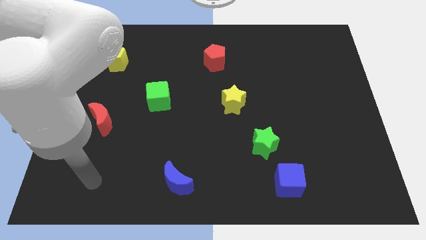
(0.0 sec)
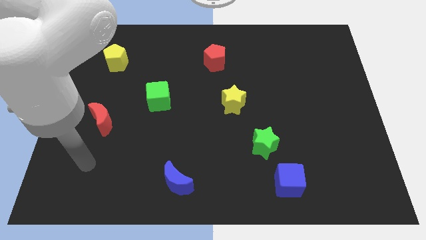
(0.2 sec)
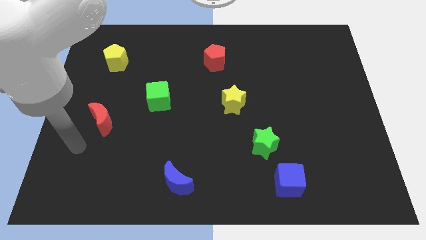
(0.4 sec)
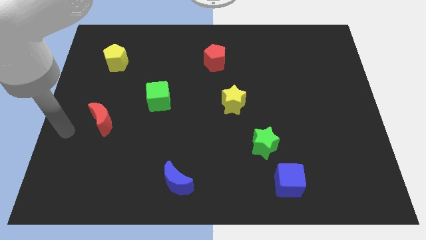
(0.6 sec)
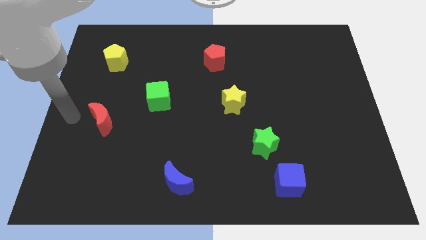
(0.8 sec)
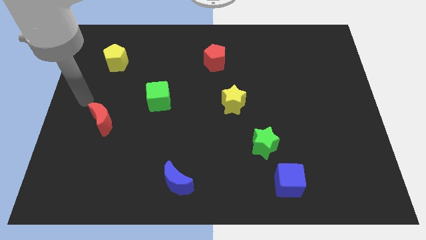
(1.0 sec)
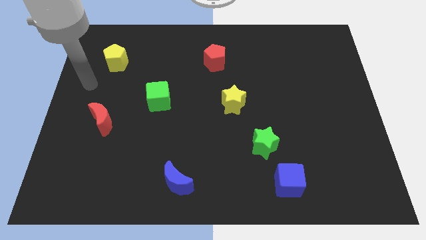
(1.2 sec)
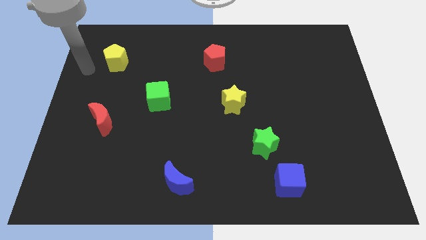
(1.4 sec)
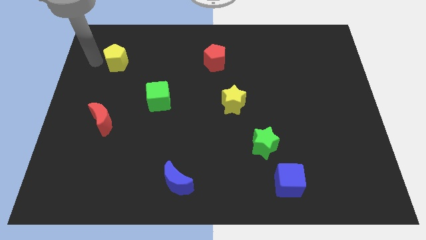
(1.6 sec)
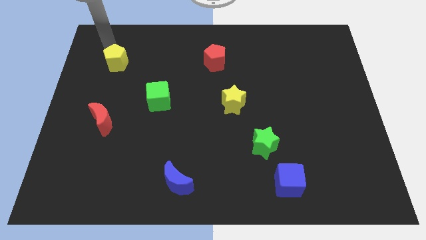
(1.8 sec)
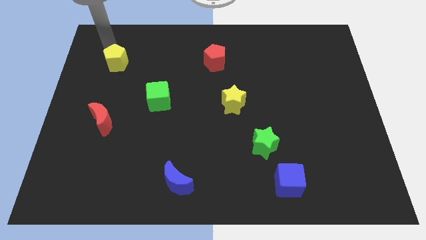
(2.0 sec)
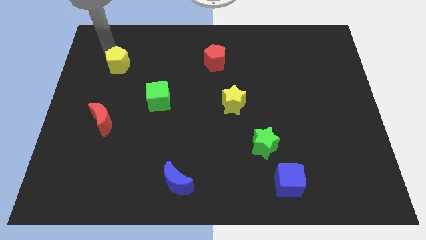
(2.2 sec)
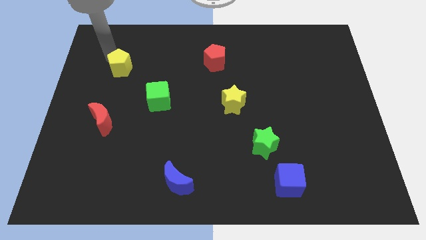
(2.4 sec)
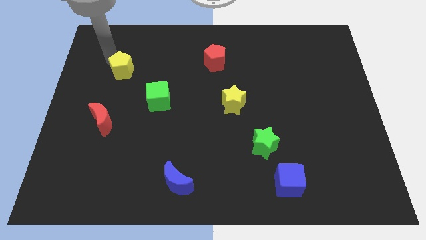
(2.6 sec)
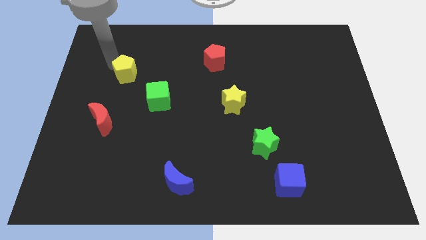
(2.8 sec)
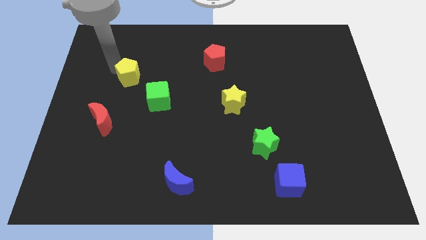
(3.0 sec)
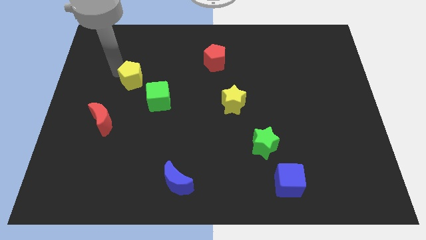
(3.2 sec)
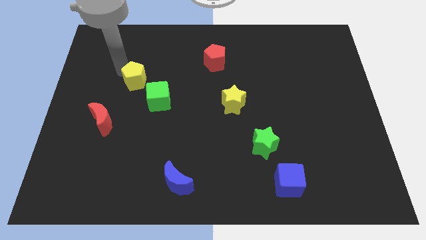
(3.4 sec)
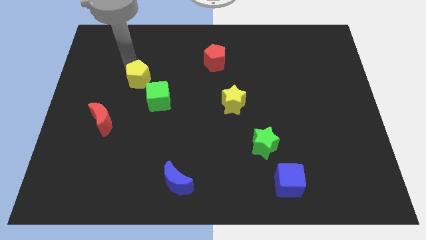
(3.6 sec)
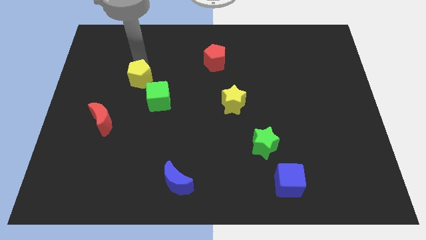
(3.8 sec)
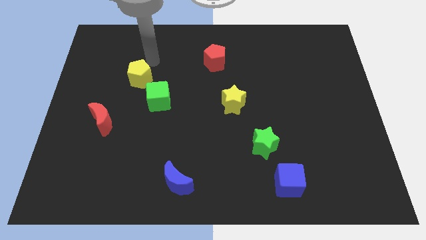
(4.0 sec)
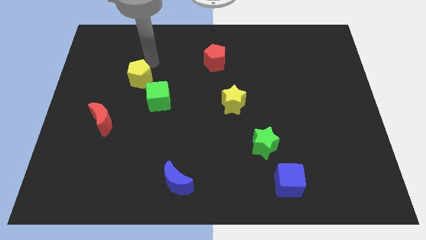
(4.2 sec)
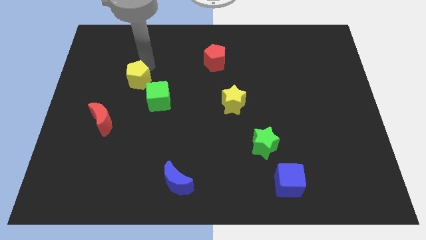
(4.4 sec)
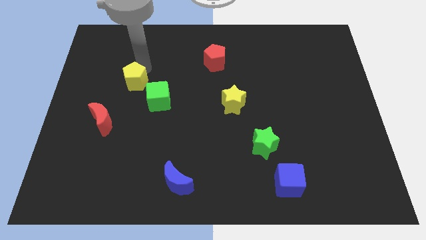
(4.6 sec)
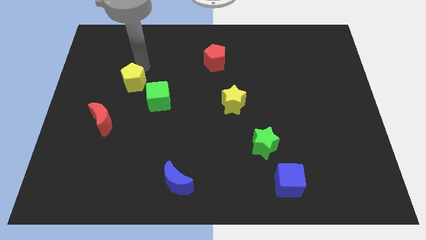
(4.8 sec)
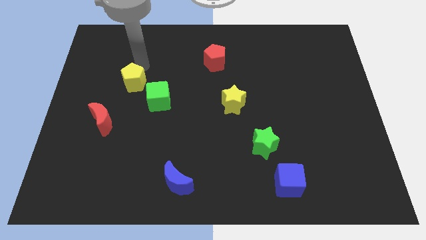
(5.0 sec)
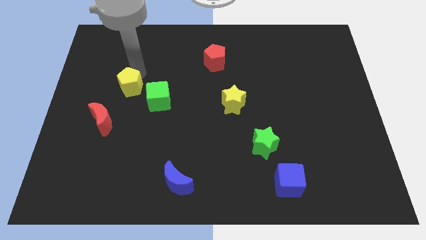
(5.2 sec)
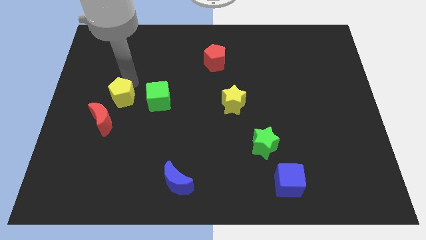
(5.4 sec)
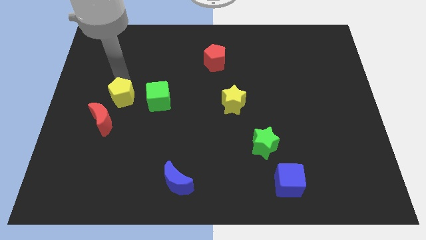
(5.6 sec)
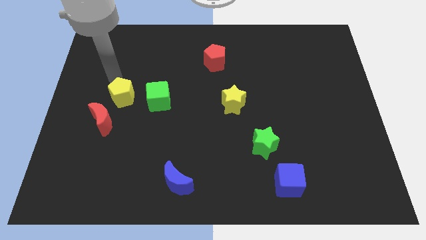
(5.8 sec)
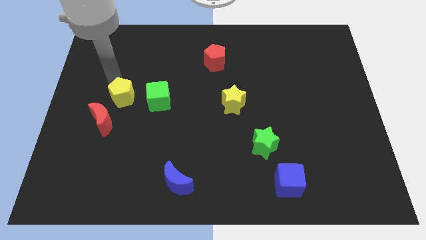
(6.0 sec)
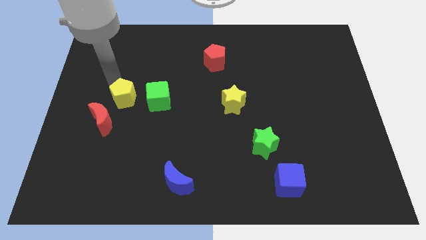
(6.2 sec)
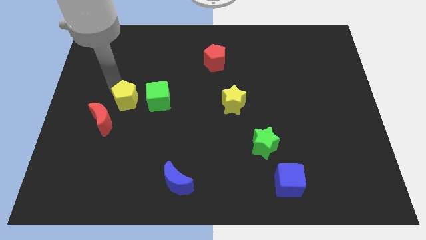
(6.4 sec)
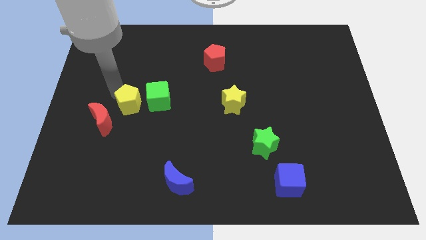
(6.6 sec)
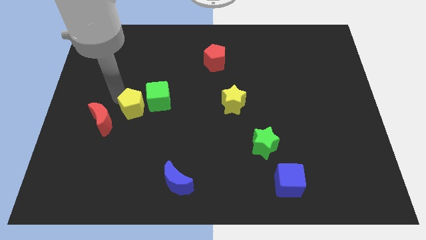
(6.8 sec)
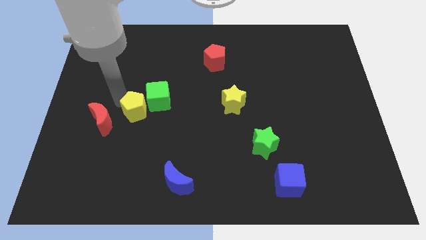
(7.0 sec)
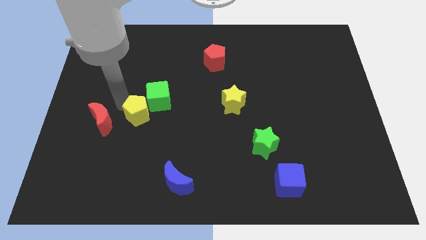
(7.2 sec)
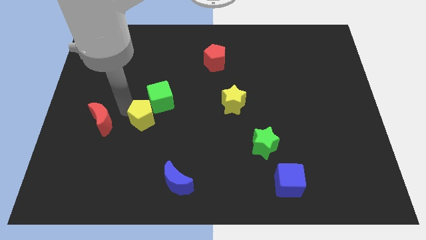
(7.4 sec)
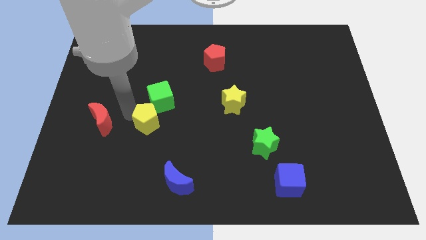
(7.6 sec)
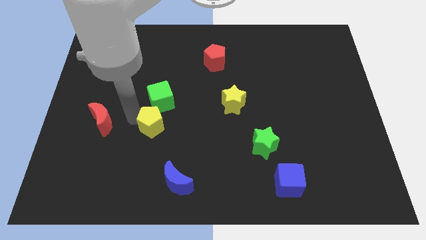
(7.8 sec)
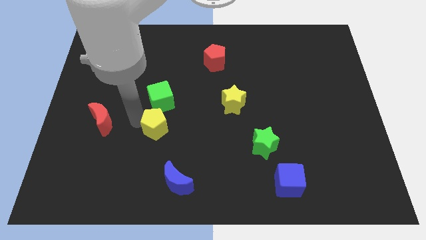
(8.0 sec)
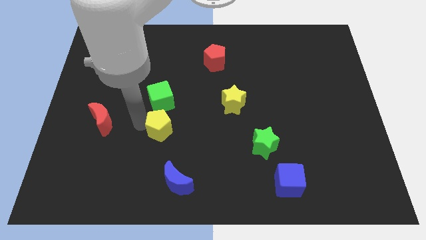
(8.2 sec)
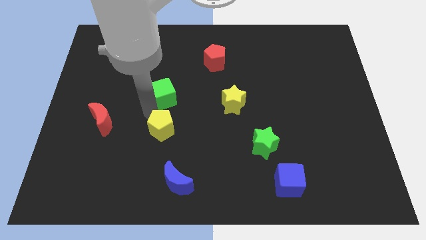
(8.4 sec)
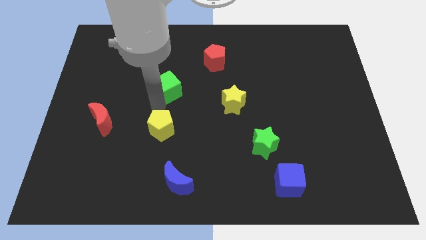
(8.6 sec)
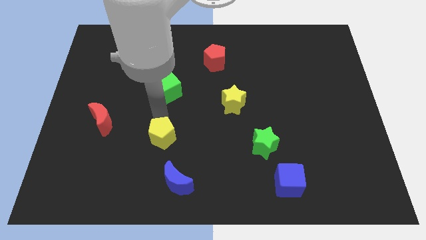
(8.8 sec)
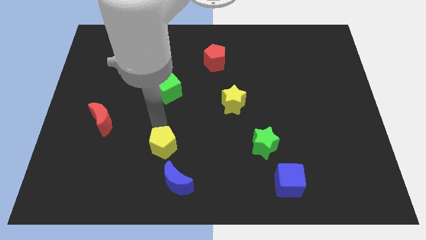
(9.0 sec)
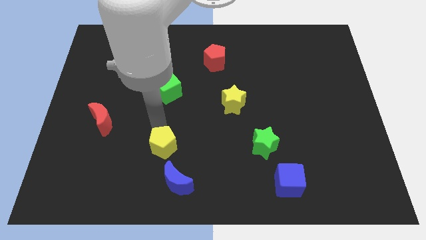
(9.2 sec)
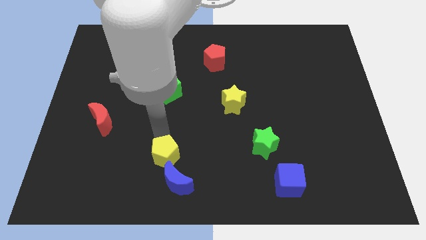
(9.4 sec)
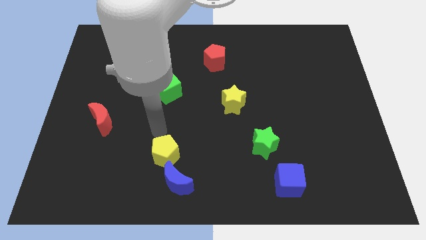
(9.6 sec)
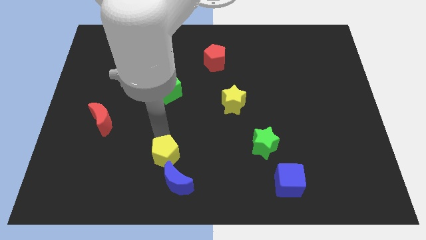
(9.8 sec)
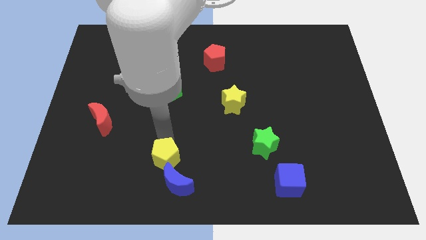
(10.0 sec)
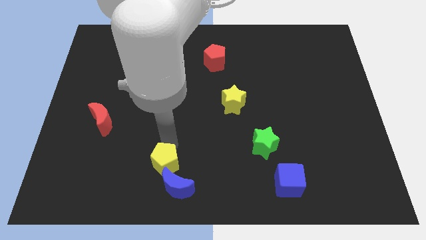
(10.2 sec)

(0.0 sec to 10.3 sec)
slide the yellow pentagon towards the blue moon

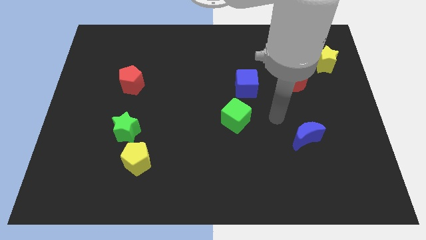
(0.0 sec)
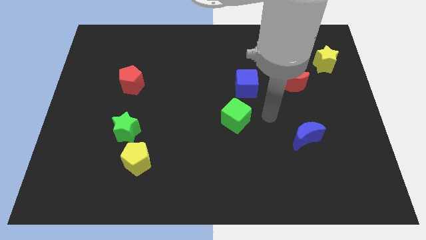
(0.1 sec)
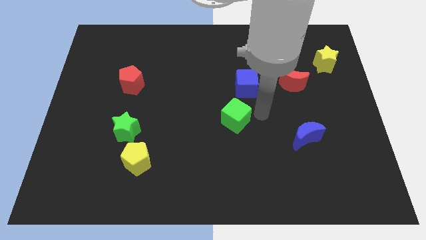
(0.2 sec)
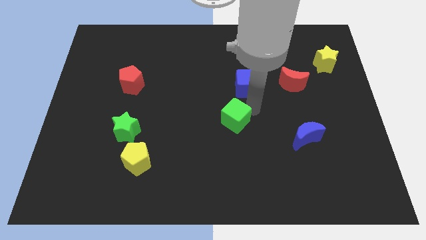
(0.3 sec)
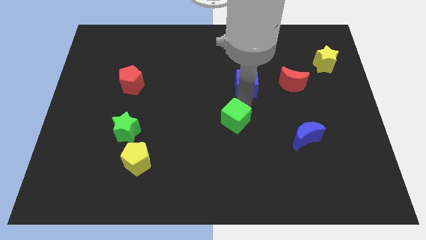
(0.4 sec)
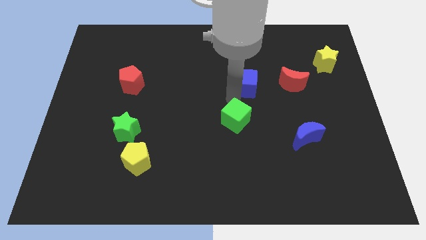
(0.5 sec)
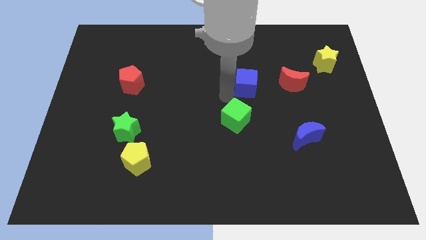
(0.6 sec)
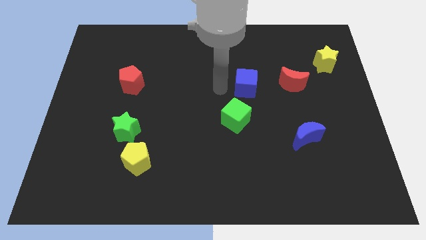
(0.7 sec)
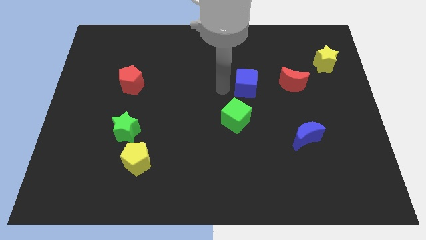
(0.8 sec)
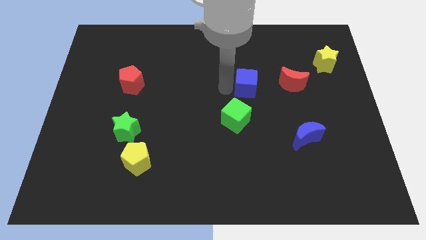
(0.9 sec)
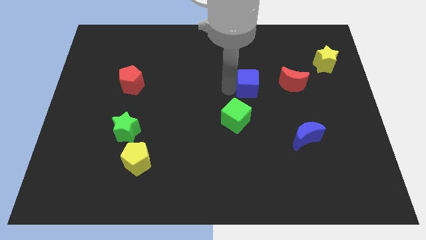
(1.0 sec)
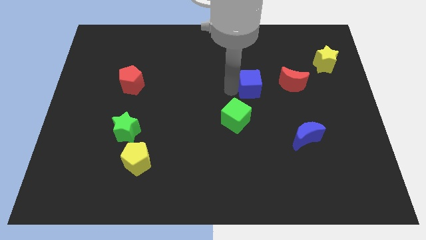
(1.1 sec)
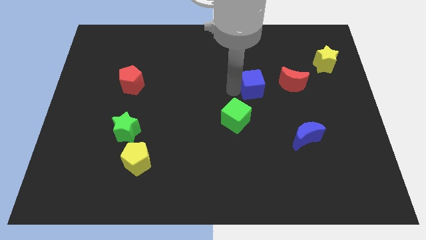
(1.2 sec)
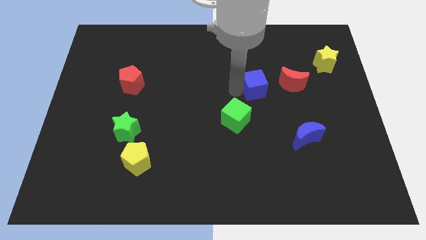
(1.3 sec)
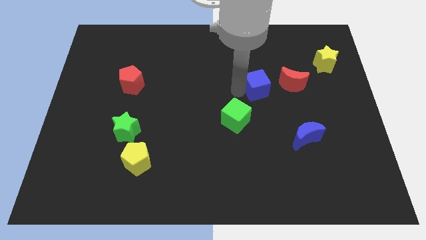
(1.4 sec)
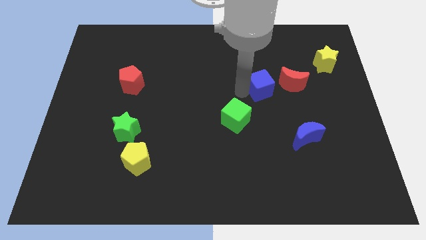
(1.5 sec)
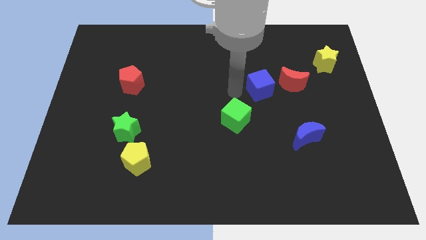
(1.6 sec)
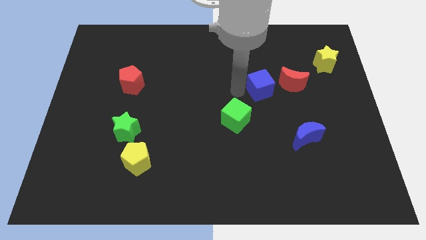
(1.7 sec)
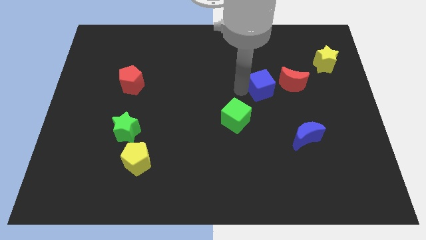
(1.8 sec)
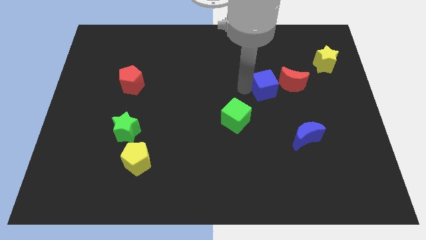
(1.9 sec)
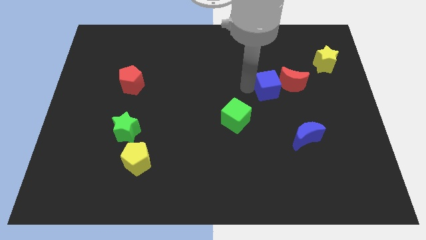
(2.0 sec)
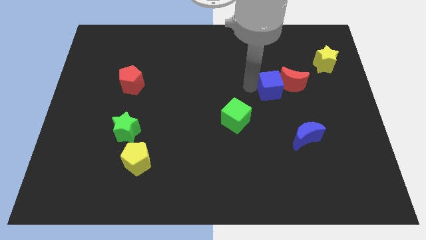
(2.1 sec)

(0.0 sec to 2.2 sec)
push the blue cube towards the red moon
